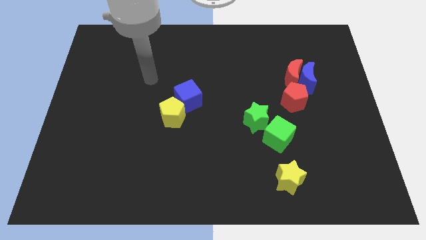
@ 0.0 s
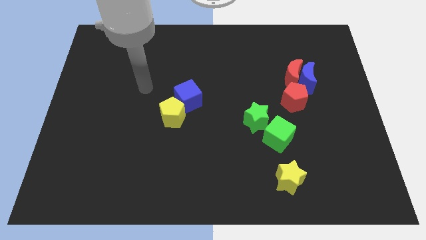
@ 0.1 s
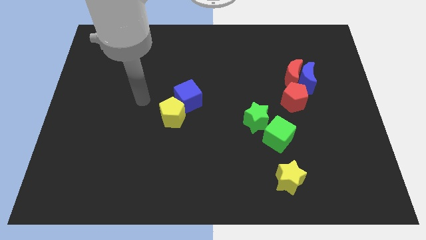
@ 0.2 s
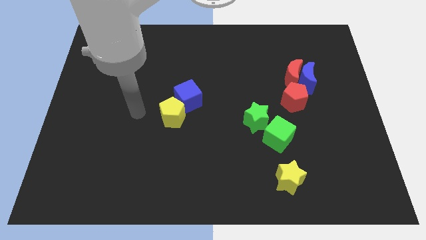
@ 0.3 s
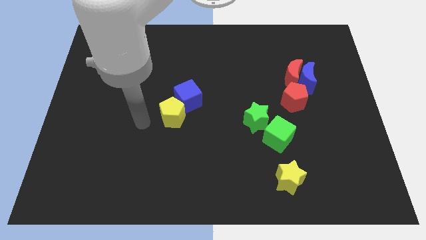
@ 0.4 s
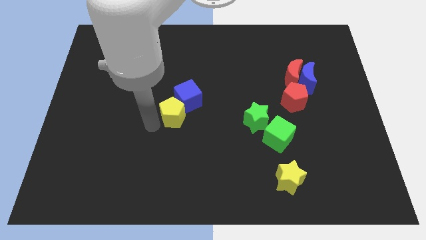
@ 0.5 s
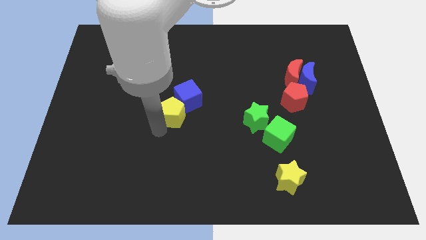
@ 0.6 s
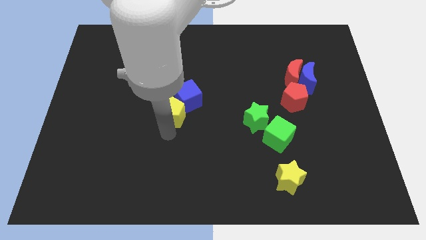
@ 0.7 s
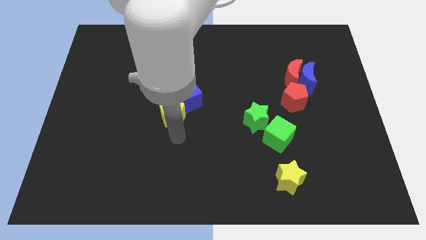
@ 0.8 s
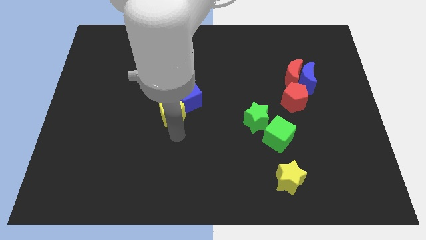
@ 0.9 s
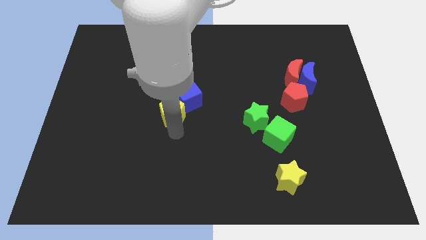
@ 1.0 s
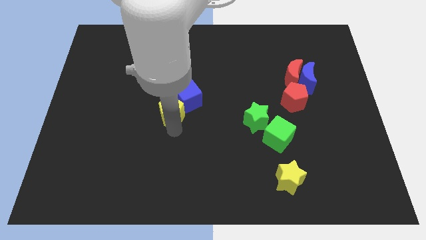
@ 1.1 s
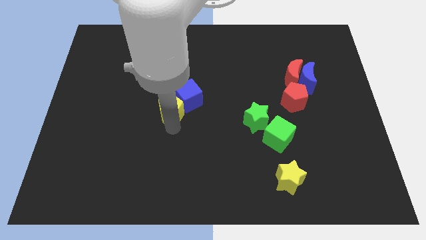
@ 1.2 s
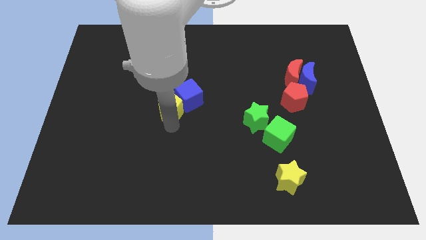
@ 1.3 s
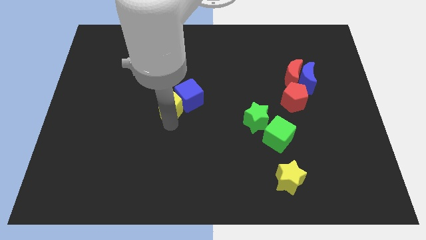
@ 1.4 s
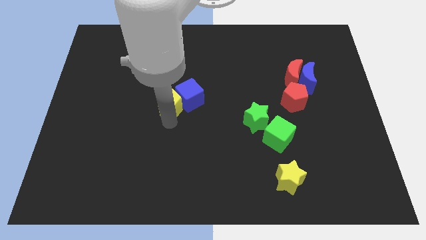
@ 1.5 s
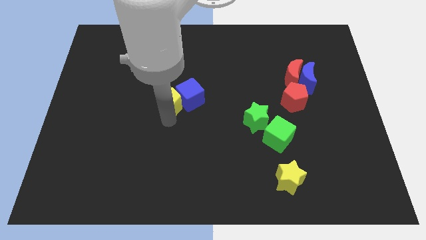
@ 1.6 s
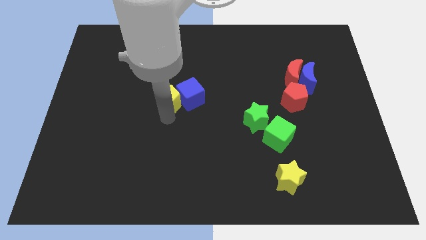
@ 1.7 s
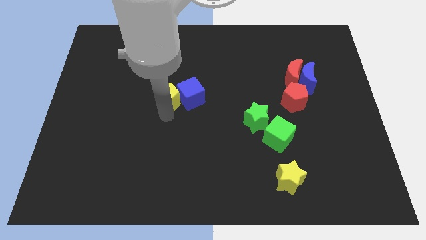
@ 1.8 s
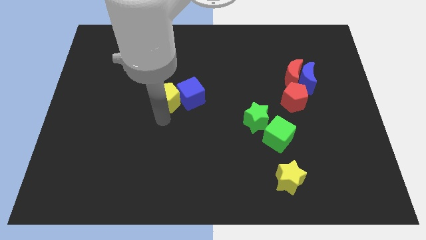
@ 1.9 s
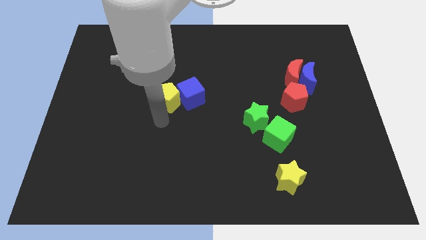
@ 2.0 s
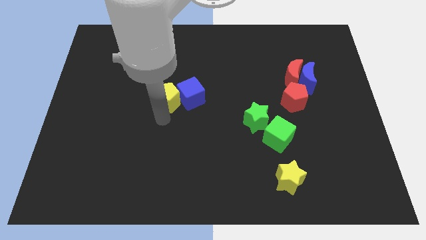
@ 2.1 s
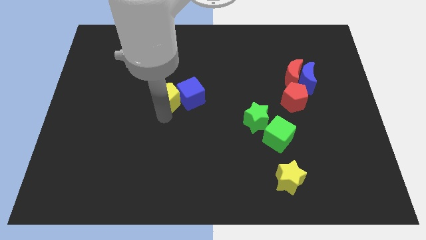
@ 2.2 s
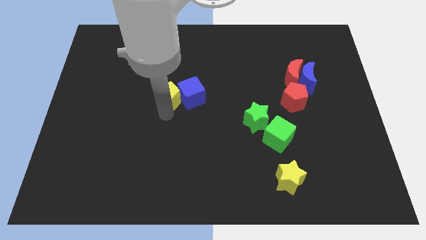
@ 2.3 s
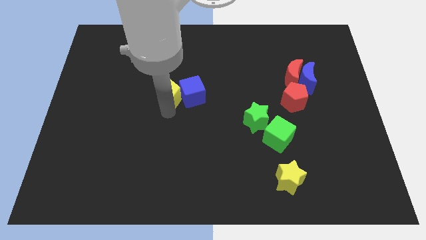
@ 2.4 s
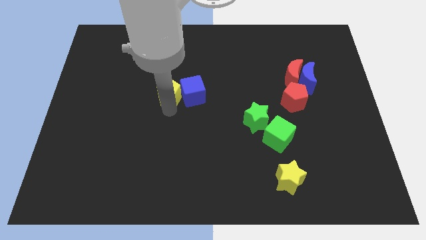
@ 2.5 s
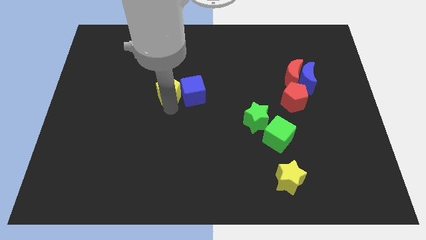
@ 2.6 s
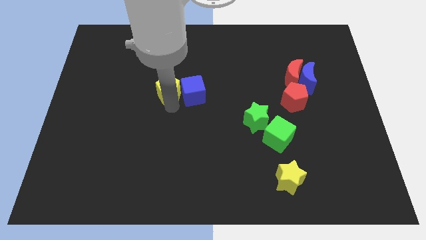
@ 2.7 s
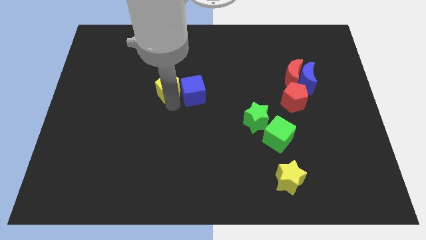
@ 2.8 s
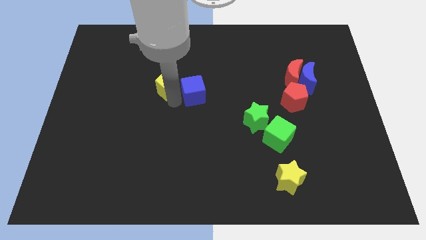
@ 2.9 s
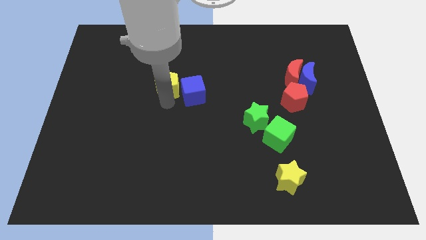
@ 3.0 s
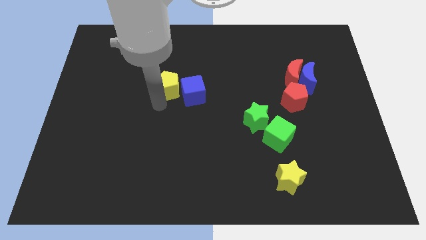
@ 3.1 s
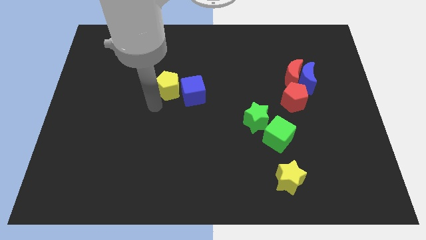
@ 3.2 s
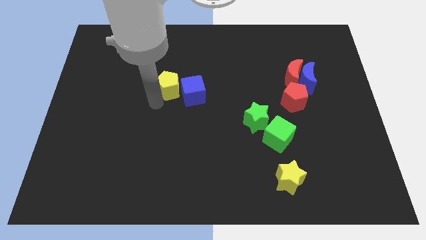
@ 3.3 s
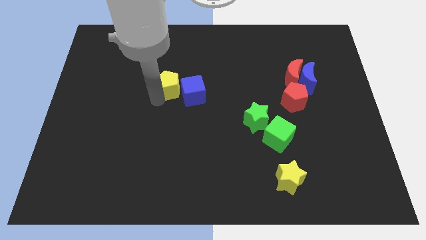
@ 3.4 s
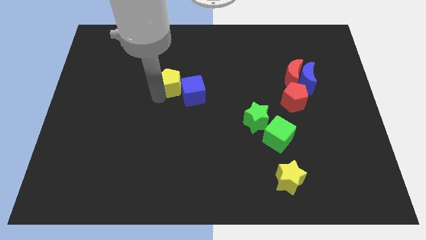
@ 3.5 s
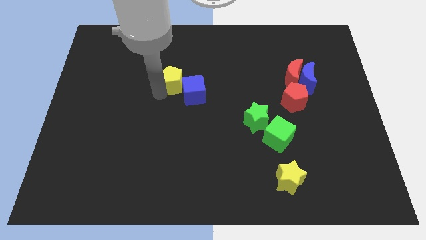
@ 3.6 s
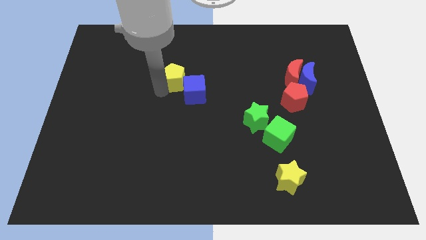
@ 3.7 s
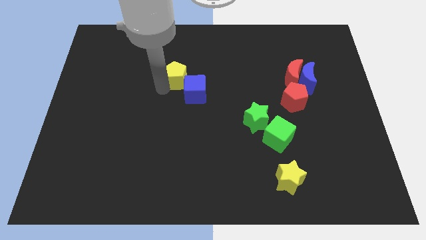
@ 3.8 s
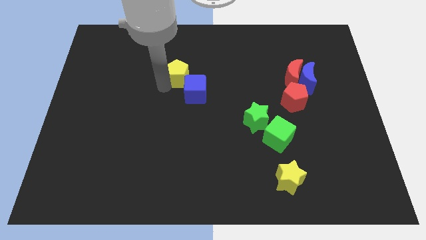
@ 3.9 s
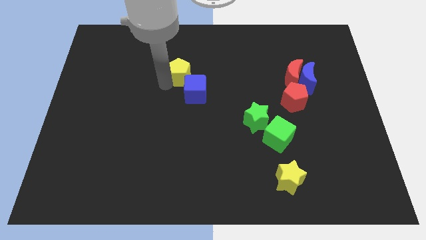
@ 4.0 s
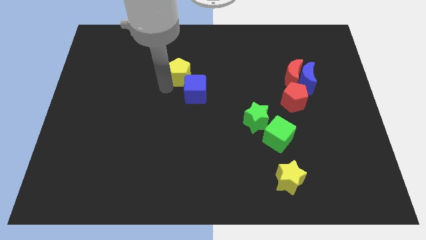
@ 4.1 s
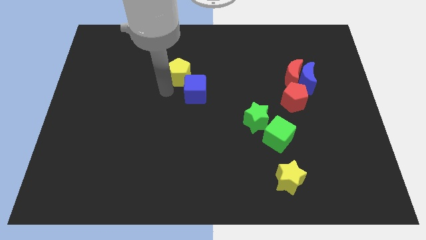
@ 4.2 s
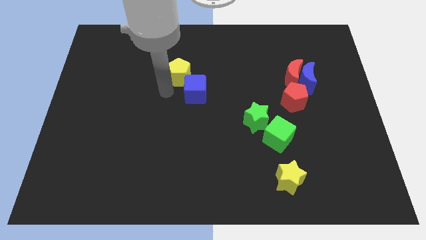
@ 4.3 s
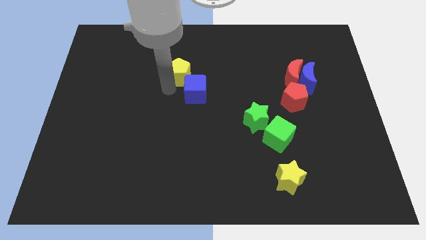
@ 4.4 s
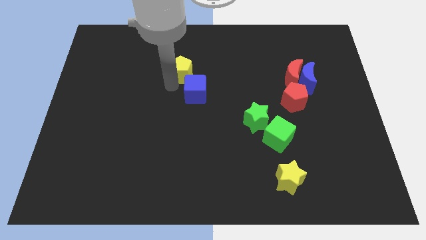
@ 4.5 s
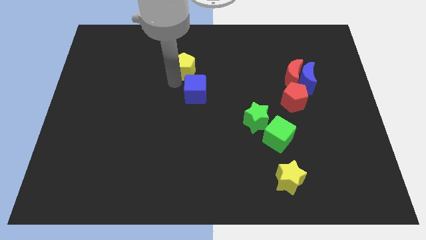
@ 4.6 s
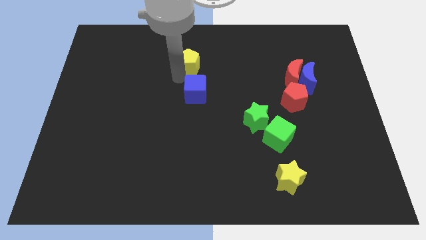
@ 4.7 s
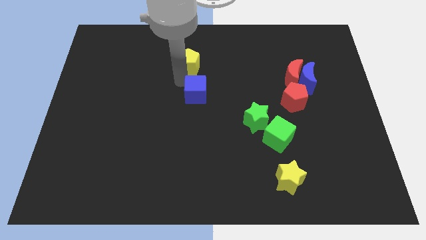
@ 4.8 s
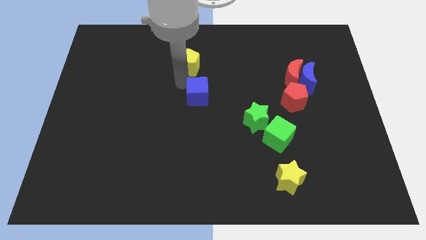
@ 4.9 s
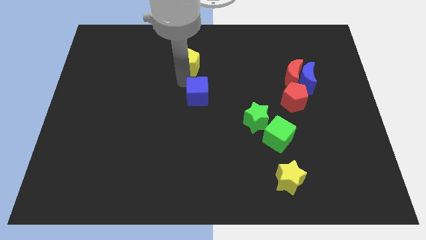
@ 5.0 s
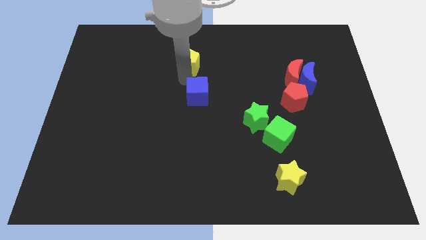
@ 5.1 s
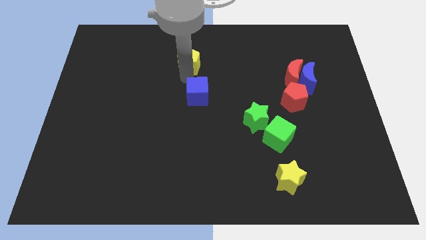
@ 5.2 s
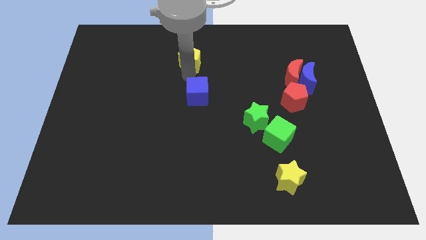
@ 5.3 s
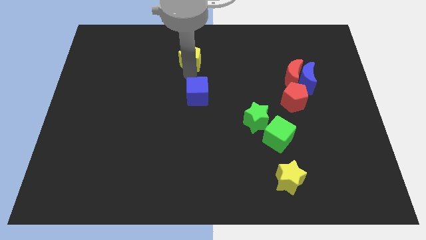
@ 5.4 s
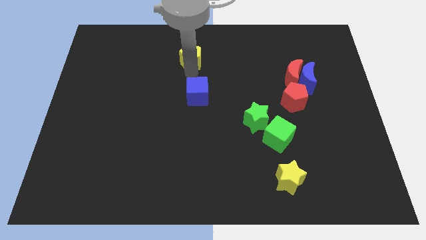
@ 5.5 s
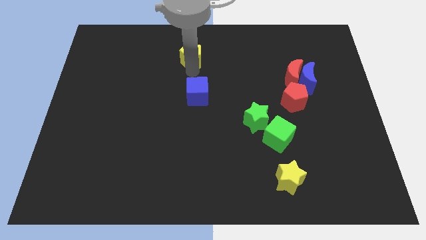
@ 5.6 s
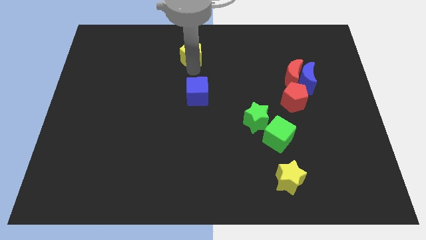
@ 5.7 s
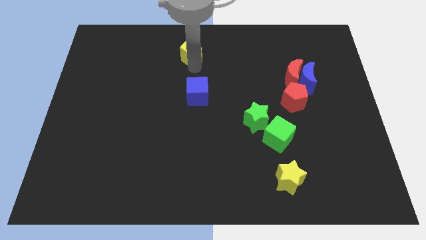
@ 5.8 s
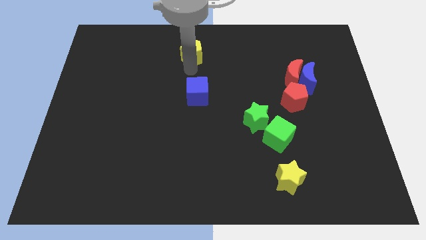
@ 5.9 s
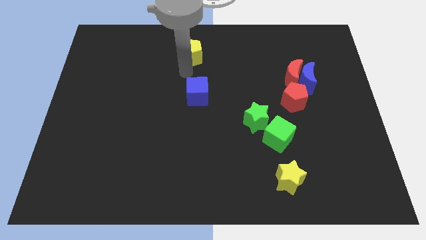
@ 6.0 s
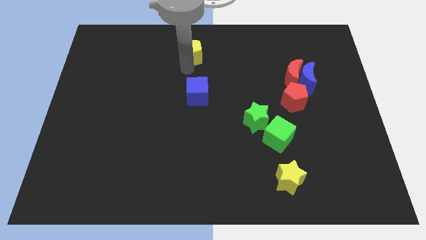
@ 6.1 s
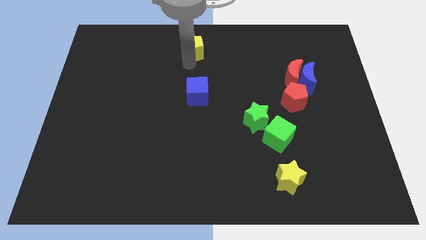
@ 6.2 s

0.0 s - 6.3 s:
move the yellow pentagon to the top side
